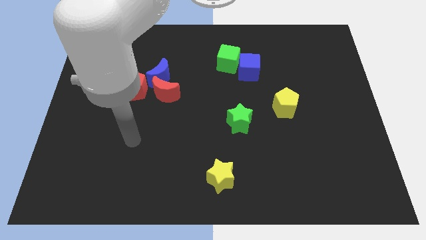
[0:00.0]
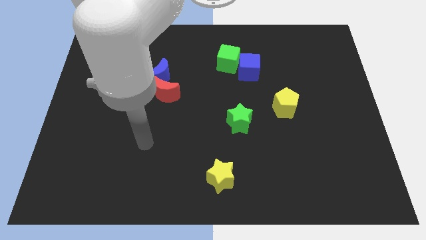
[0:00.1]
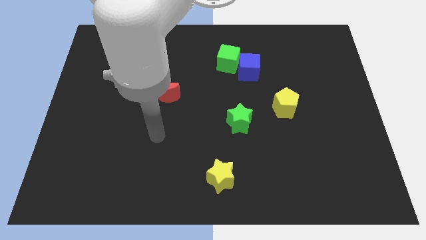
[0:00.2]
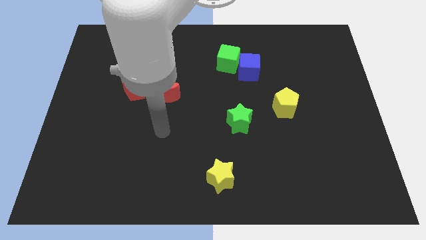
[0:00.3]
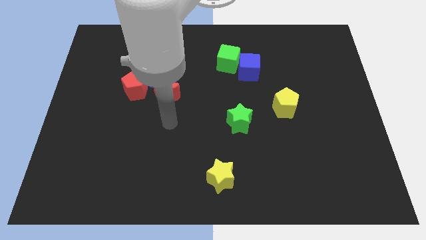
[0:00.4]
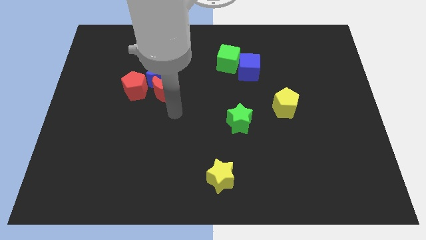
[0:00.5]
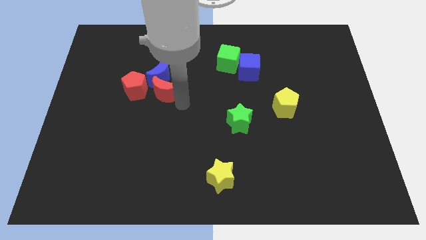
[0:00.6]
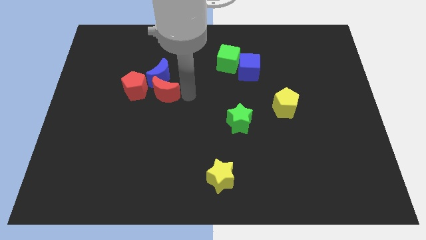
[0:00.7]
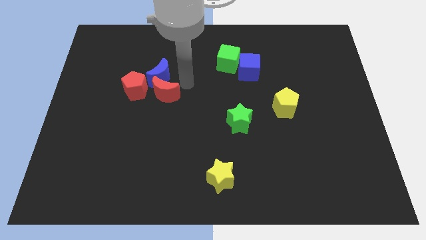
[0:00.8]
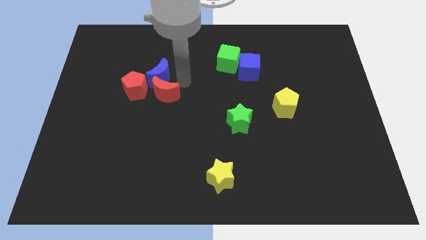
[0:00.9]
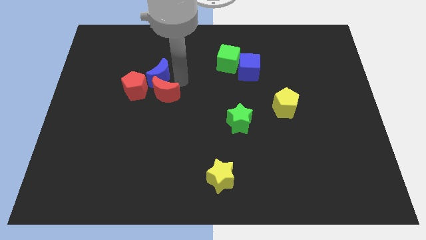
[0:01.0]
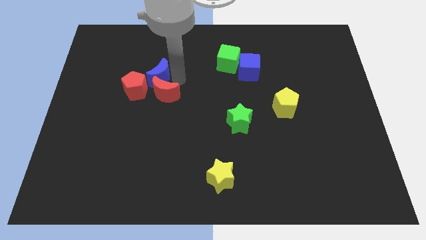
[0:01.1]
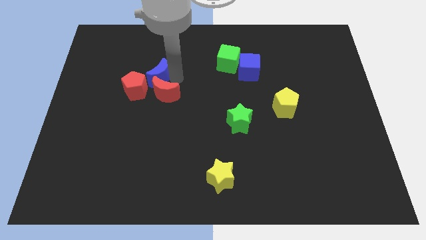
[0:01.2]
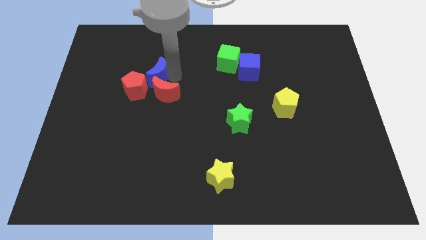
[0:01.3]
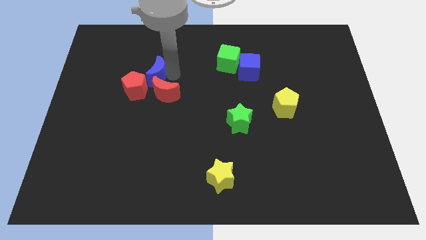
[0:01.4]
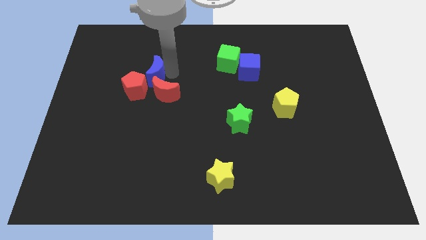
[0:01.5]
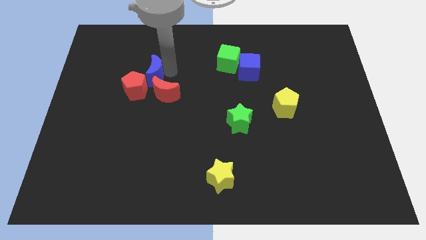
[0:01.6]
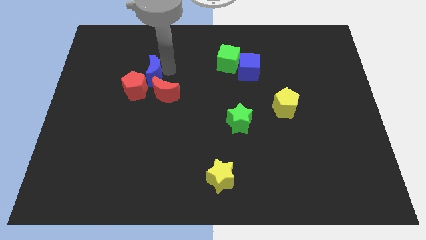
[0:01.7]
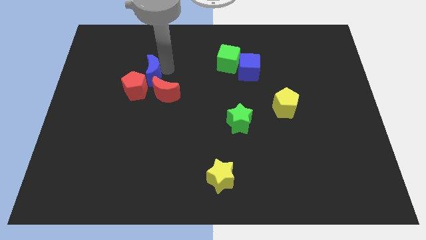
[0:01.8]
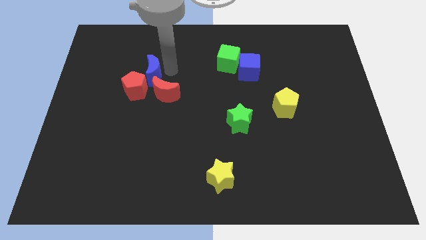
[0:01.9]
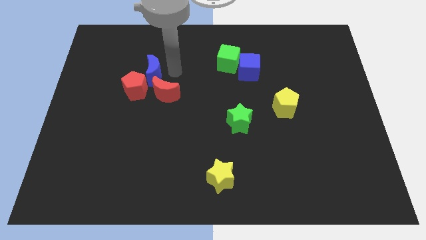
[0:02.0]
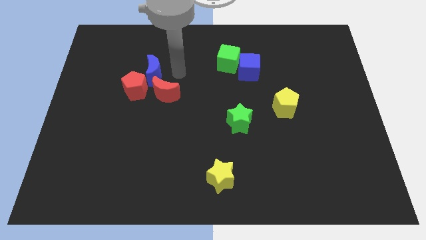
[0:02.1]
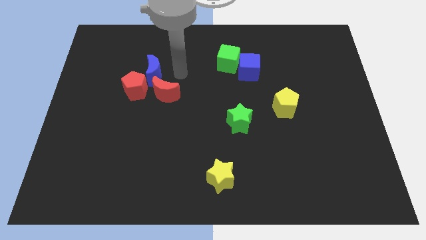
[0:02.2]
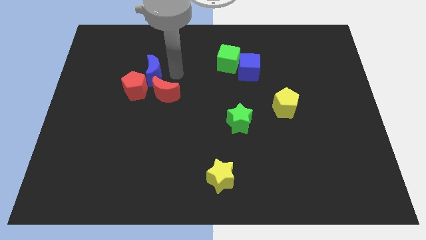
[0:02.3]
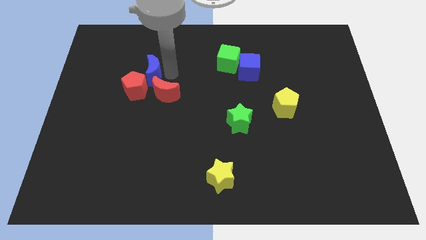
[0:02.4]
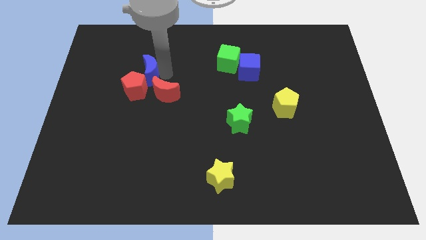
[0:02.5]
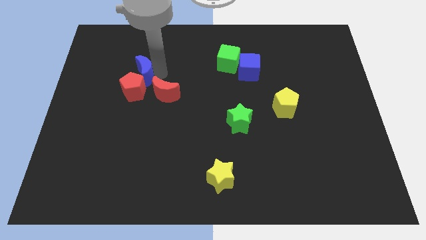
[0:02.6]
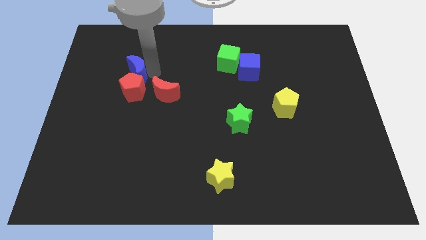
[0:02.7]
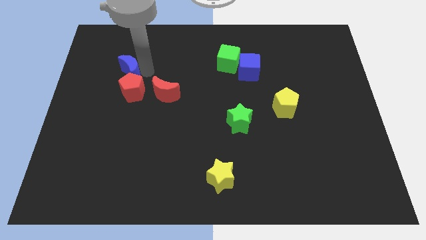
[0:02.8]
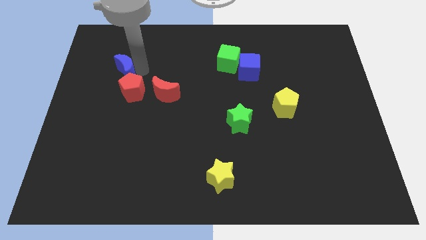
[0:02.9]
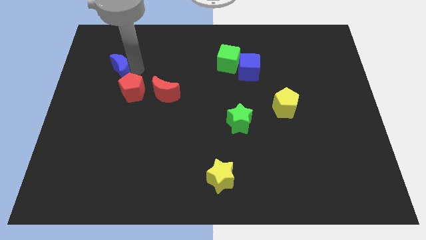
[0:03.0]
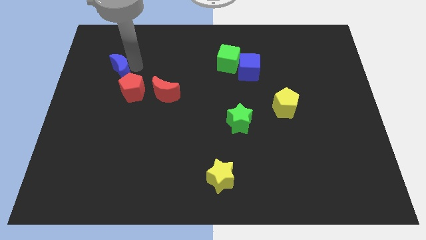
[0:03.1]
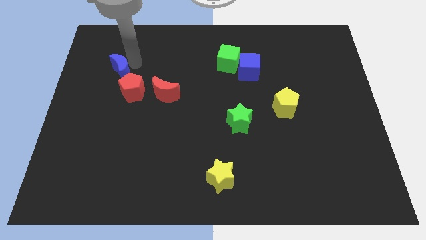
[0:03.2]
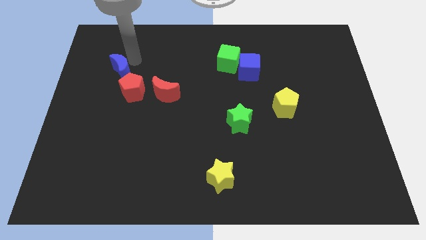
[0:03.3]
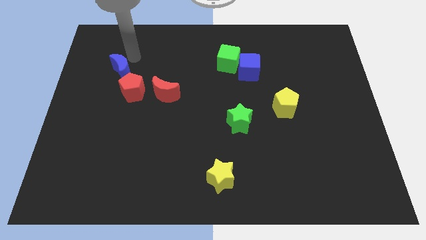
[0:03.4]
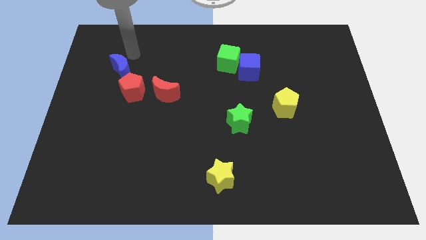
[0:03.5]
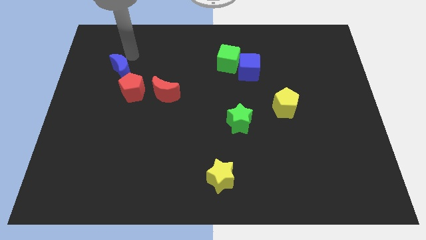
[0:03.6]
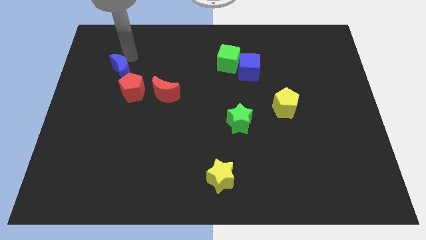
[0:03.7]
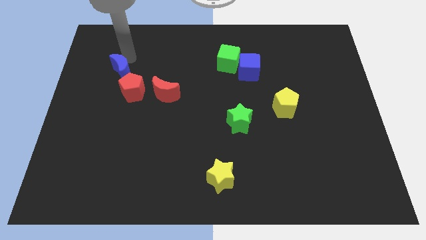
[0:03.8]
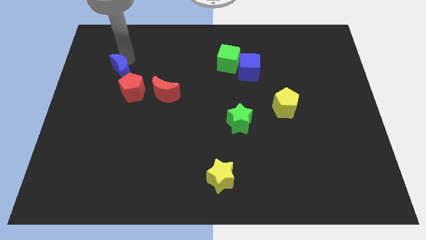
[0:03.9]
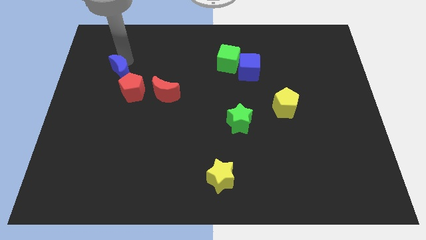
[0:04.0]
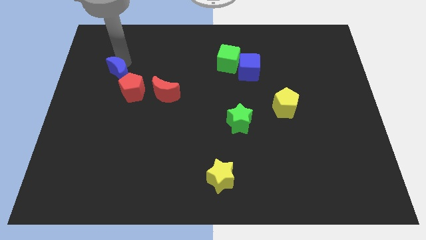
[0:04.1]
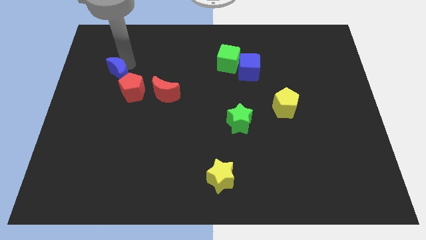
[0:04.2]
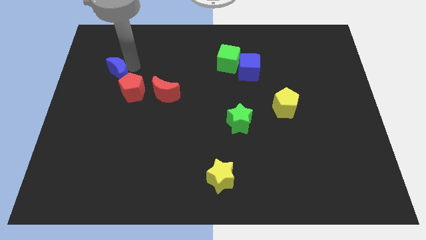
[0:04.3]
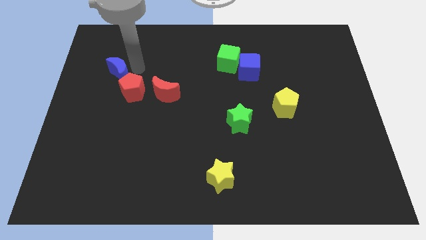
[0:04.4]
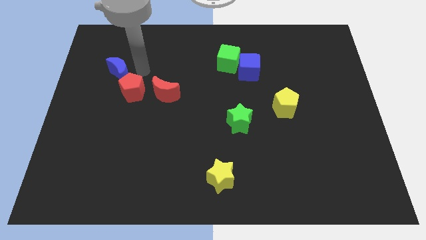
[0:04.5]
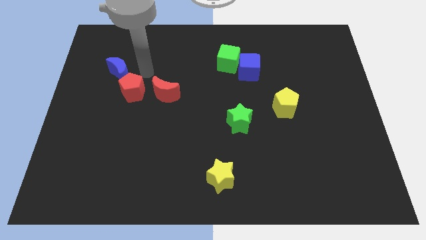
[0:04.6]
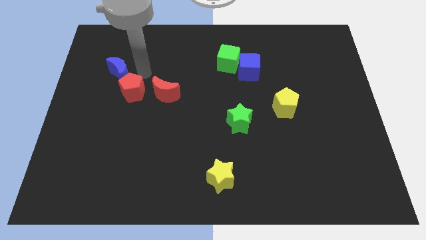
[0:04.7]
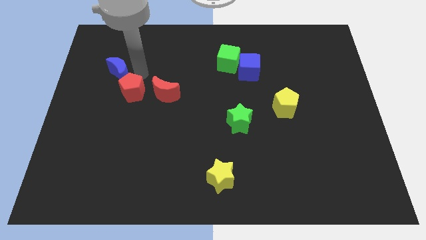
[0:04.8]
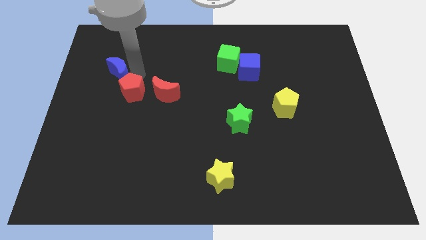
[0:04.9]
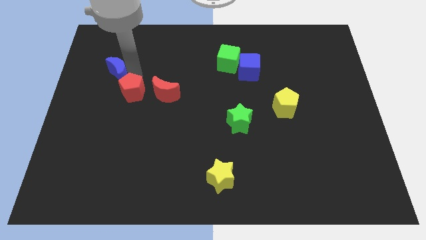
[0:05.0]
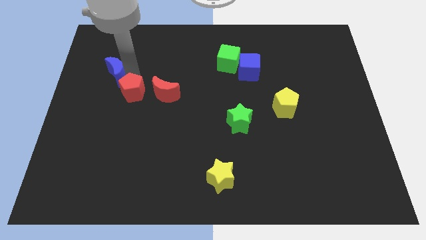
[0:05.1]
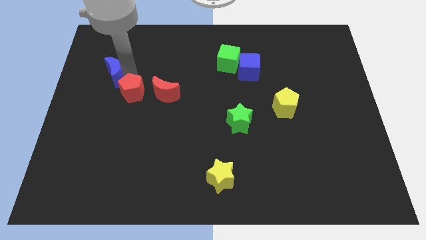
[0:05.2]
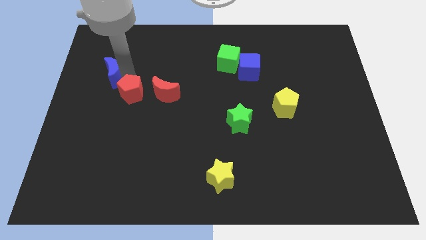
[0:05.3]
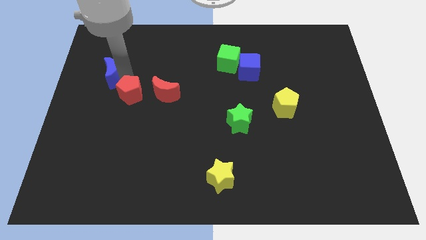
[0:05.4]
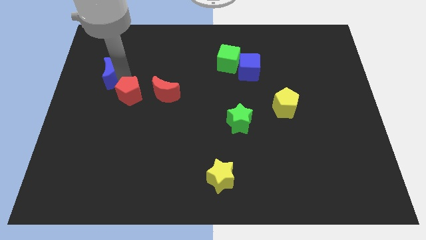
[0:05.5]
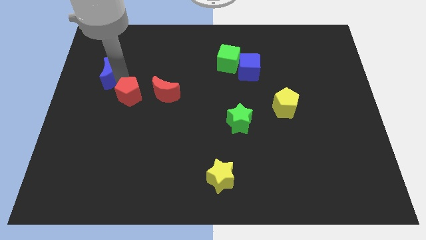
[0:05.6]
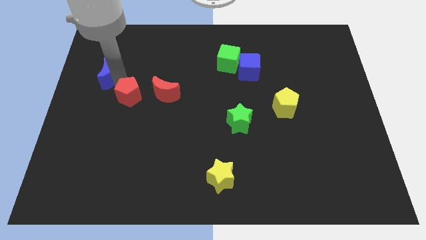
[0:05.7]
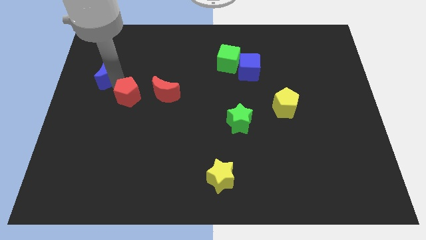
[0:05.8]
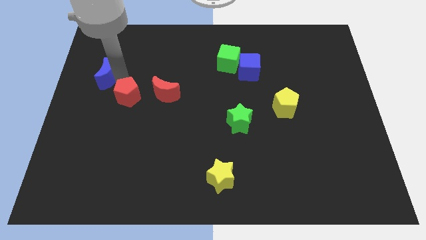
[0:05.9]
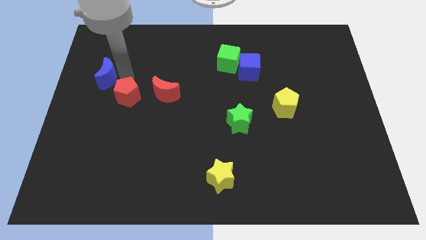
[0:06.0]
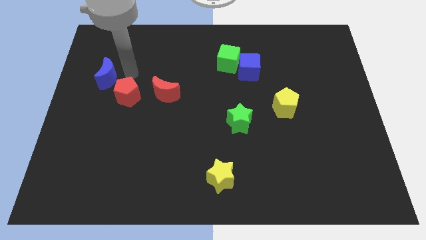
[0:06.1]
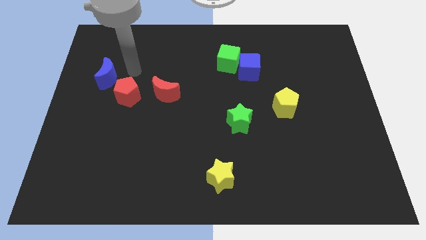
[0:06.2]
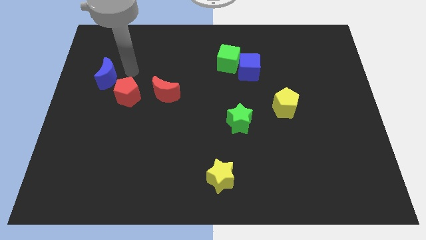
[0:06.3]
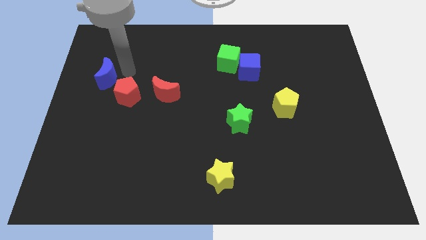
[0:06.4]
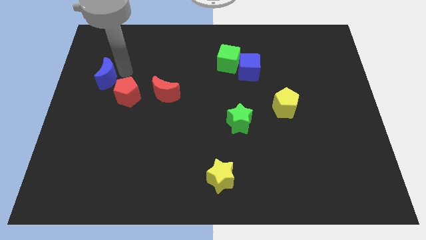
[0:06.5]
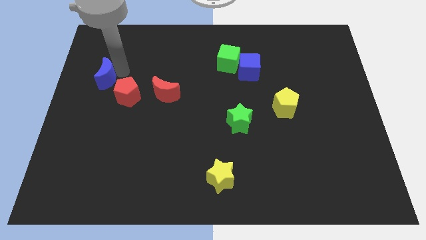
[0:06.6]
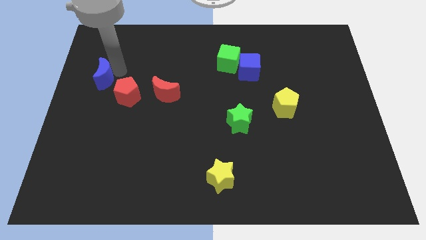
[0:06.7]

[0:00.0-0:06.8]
move the blue moon to the left side of the board

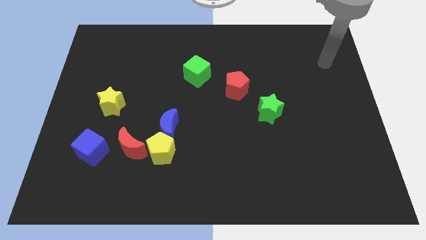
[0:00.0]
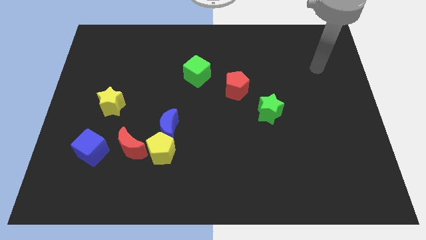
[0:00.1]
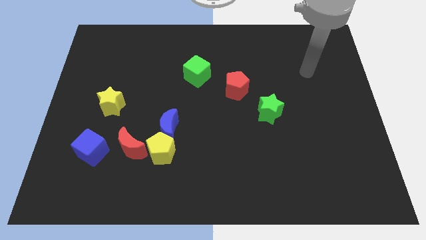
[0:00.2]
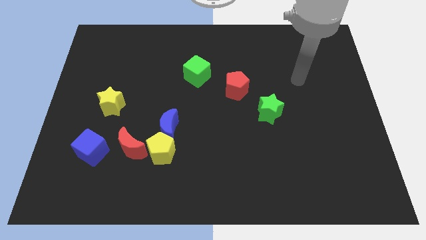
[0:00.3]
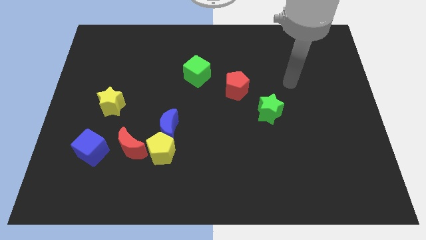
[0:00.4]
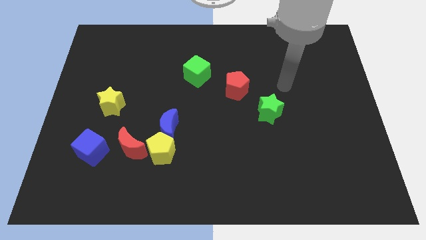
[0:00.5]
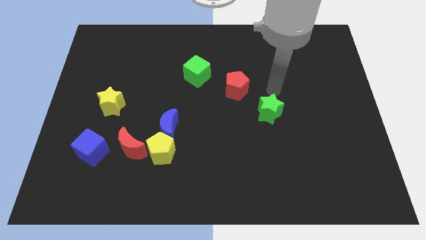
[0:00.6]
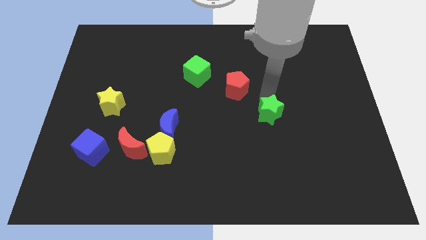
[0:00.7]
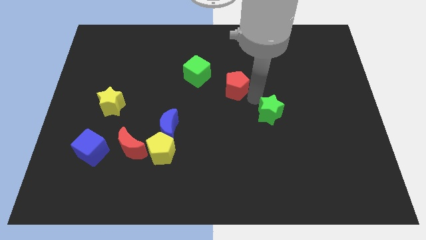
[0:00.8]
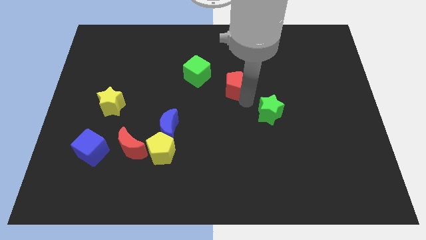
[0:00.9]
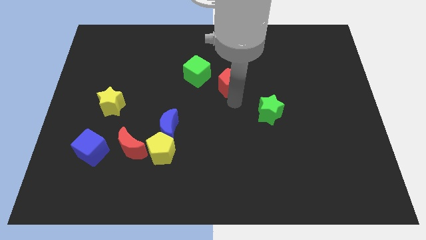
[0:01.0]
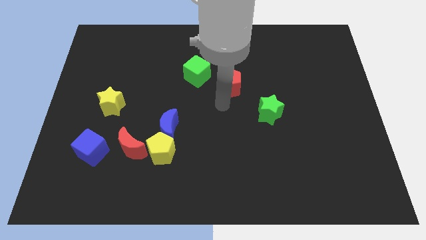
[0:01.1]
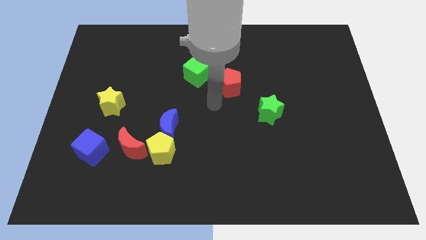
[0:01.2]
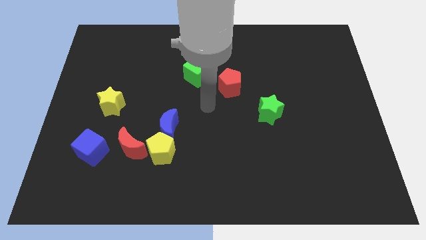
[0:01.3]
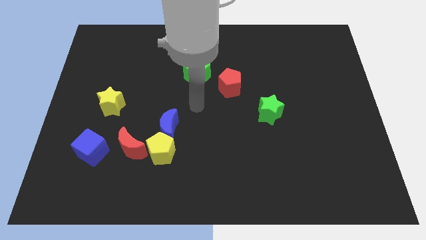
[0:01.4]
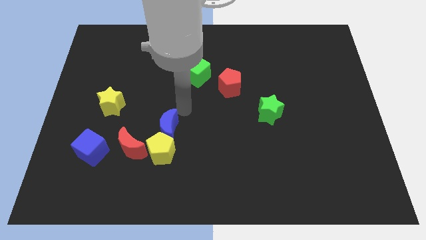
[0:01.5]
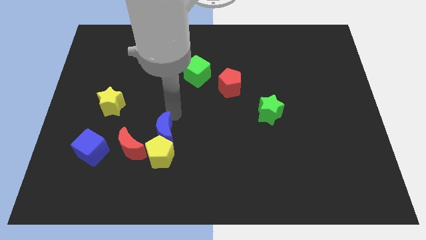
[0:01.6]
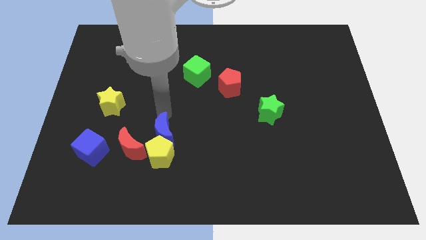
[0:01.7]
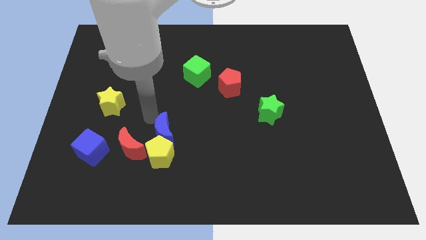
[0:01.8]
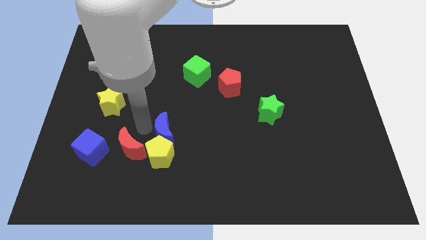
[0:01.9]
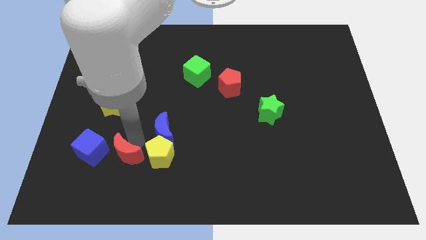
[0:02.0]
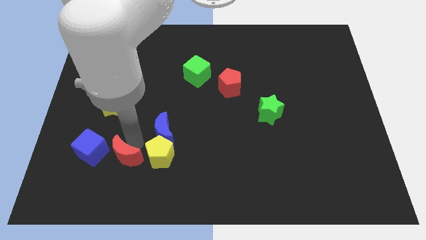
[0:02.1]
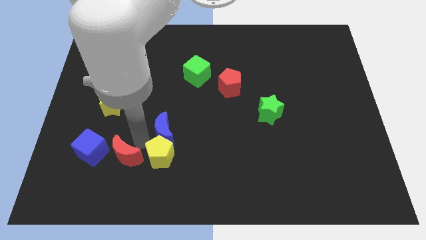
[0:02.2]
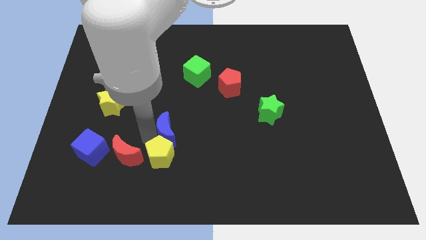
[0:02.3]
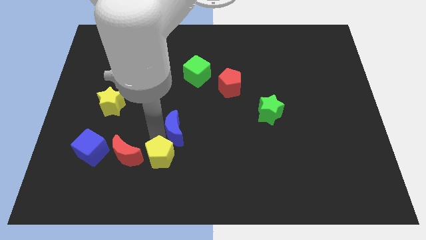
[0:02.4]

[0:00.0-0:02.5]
put the blue moon to the middle
